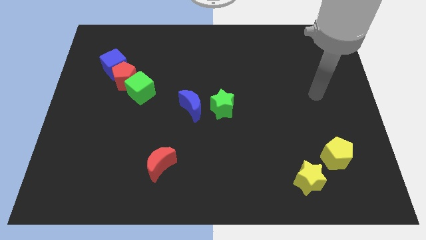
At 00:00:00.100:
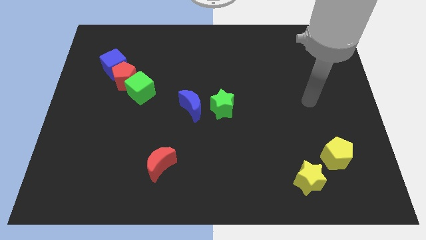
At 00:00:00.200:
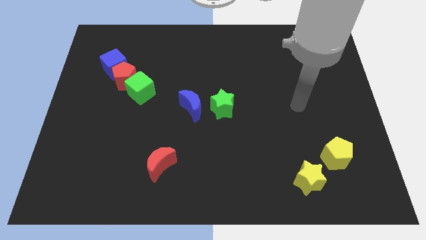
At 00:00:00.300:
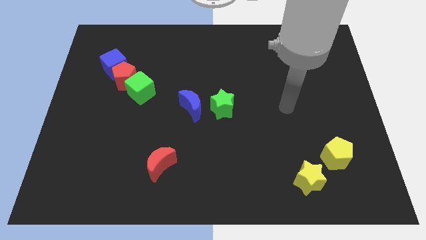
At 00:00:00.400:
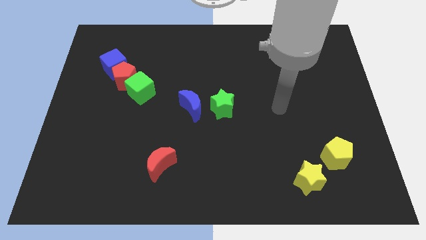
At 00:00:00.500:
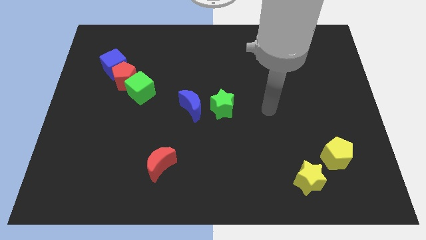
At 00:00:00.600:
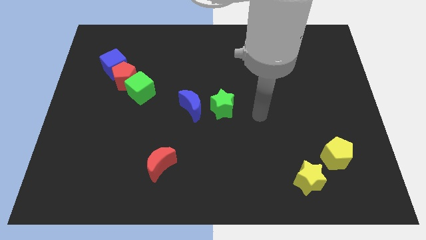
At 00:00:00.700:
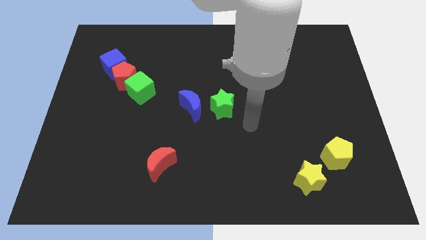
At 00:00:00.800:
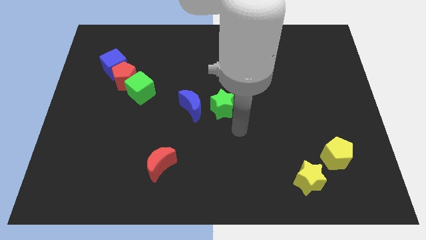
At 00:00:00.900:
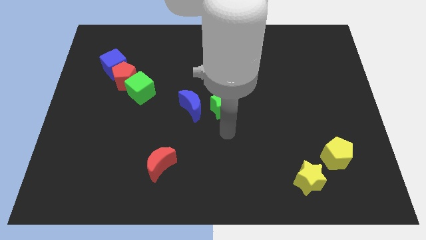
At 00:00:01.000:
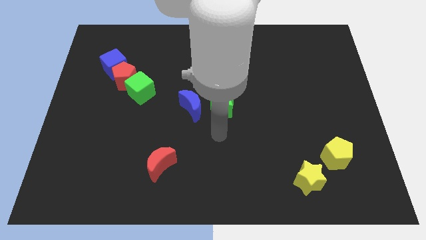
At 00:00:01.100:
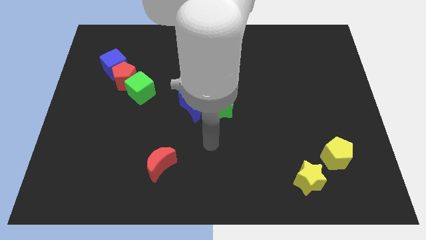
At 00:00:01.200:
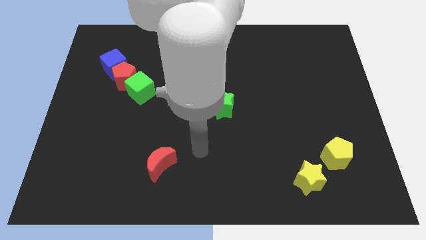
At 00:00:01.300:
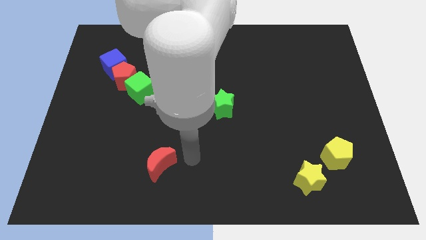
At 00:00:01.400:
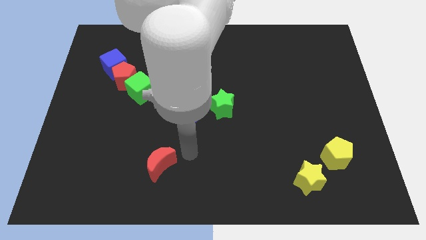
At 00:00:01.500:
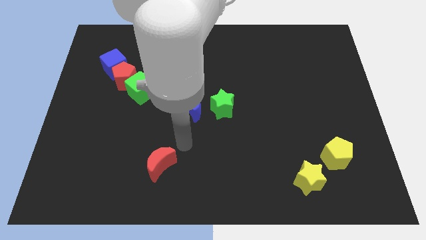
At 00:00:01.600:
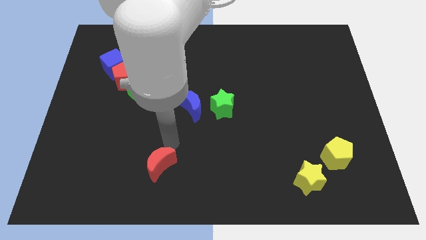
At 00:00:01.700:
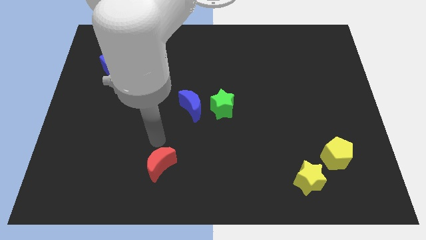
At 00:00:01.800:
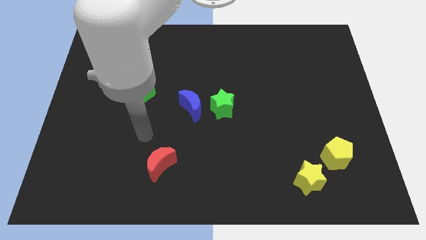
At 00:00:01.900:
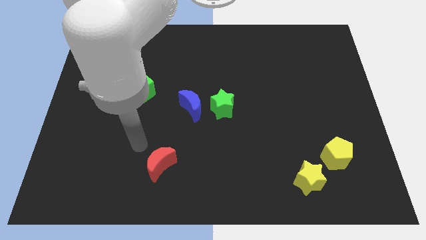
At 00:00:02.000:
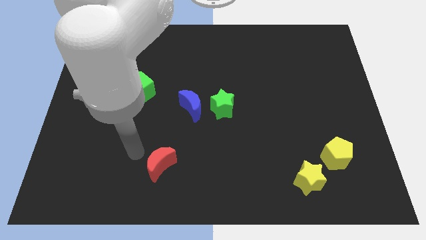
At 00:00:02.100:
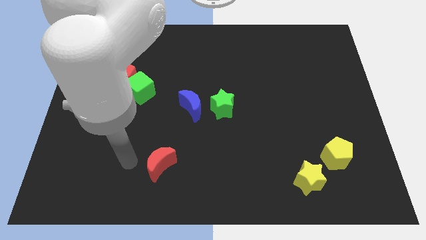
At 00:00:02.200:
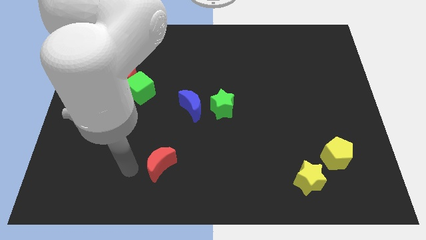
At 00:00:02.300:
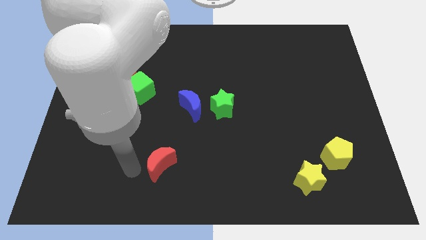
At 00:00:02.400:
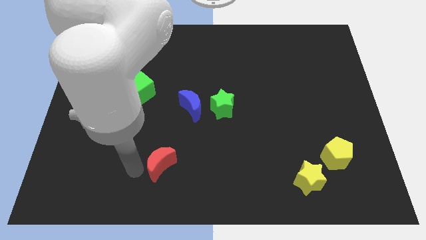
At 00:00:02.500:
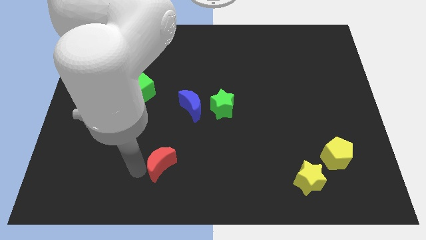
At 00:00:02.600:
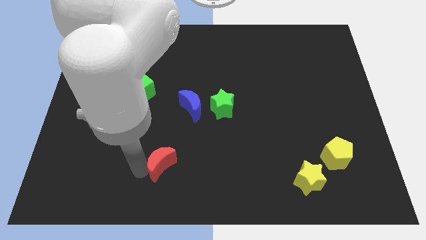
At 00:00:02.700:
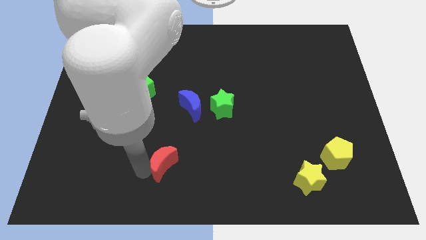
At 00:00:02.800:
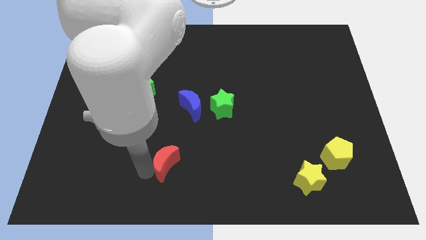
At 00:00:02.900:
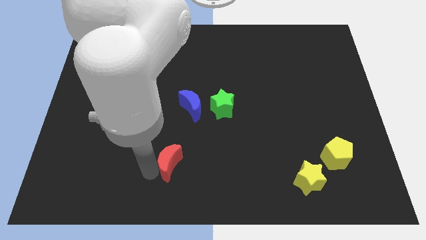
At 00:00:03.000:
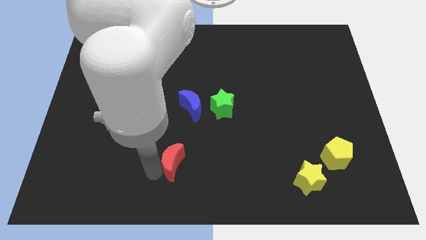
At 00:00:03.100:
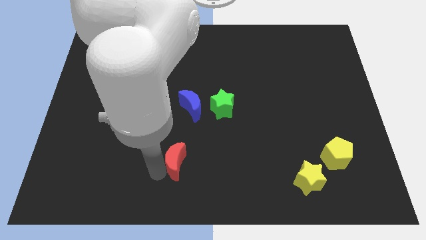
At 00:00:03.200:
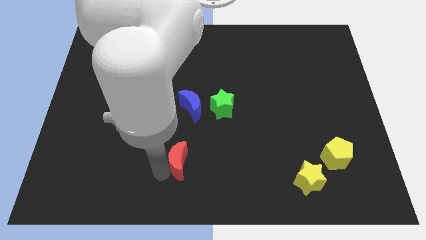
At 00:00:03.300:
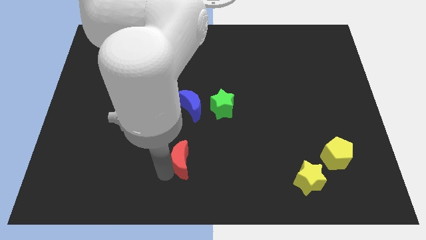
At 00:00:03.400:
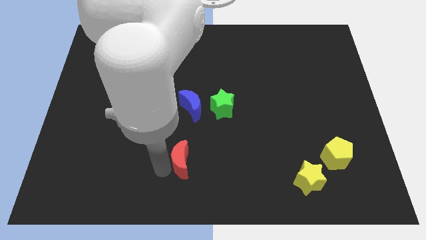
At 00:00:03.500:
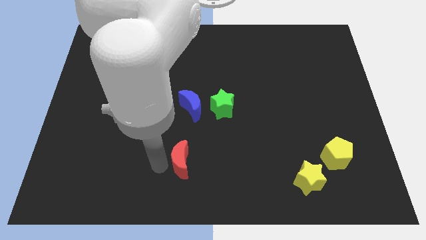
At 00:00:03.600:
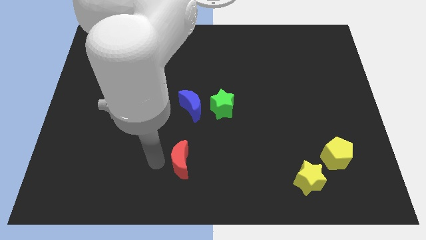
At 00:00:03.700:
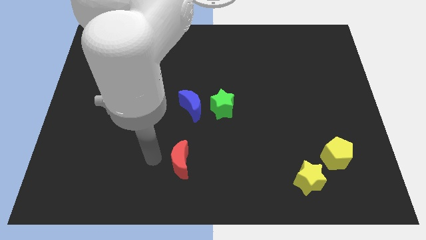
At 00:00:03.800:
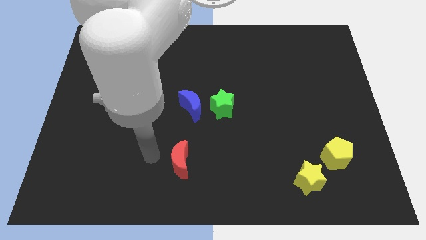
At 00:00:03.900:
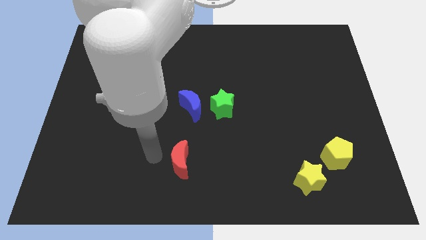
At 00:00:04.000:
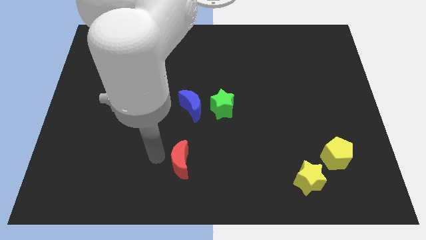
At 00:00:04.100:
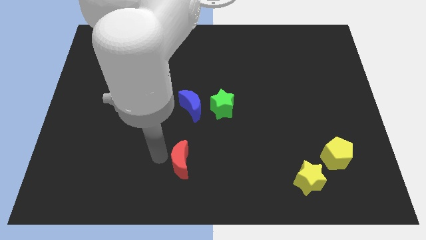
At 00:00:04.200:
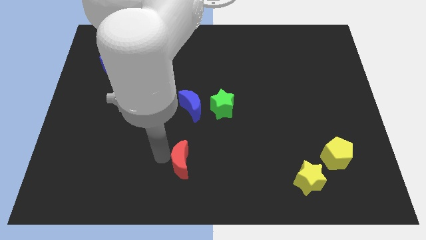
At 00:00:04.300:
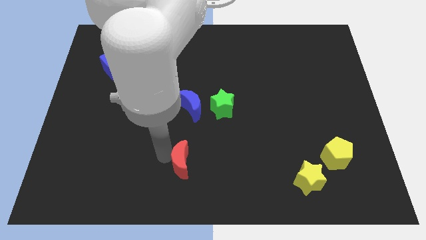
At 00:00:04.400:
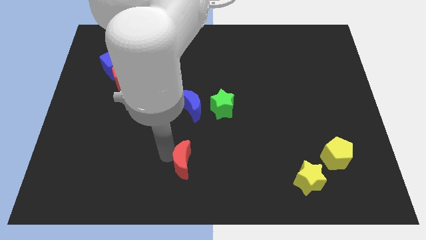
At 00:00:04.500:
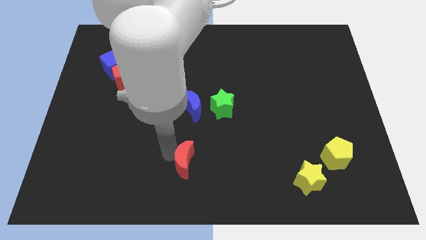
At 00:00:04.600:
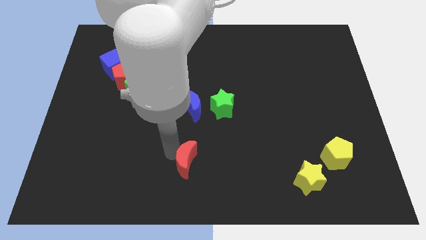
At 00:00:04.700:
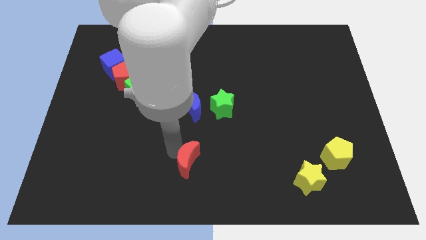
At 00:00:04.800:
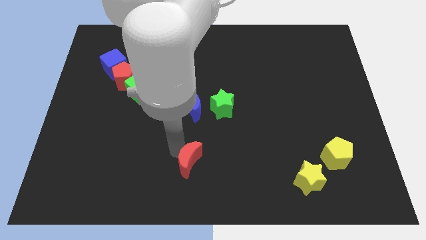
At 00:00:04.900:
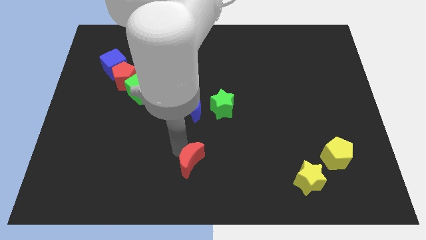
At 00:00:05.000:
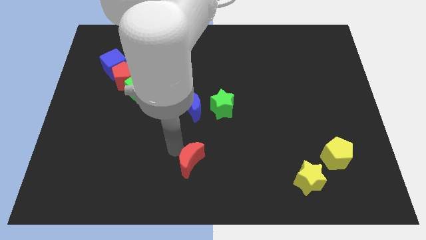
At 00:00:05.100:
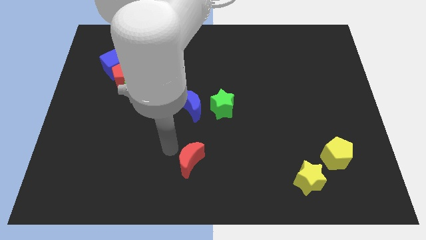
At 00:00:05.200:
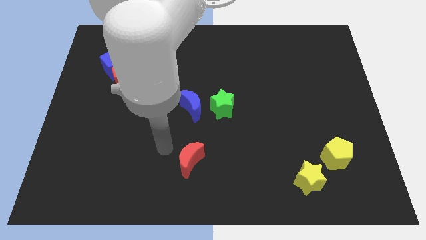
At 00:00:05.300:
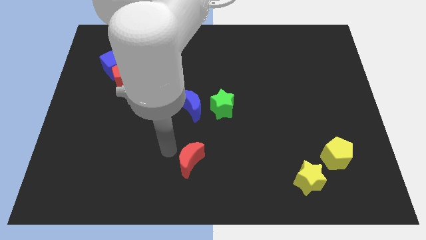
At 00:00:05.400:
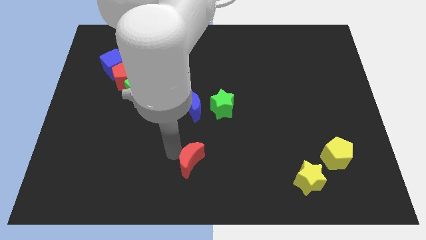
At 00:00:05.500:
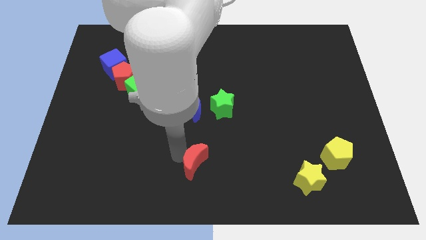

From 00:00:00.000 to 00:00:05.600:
push the red moon right a little bit

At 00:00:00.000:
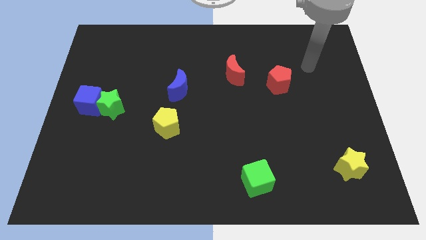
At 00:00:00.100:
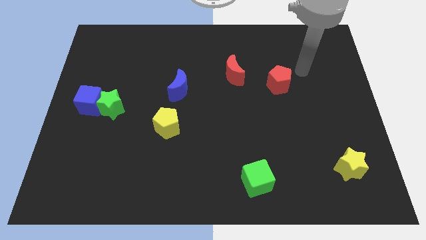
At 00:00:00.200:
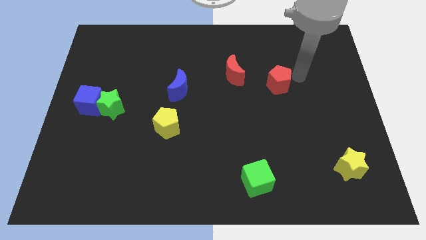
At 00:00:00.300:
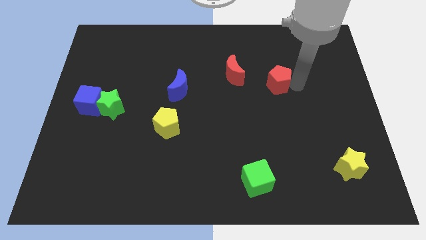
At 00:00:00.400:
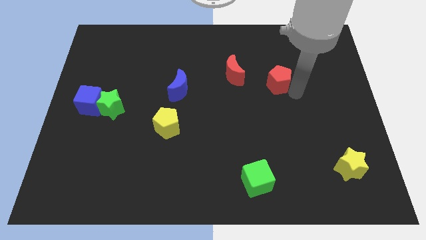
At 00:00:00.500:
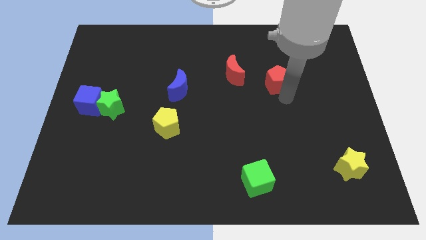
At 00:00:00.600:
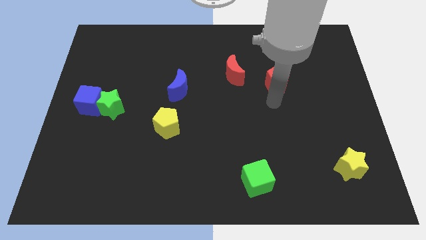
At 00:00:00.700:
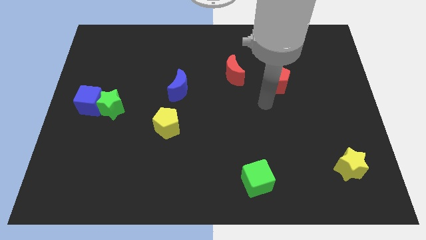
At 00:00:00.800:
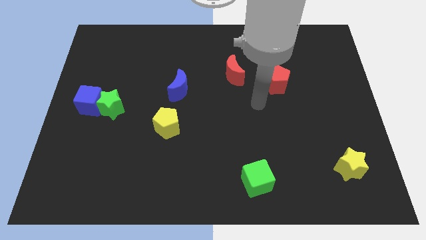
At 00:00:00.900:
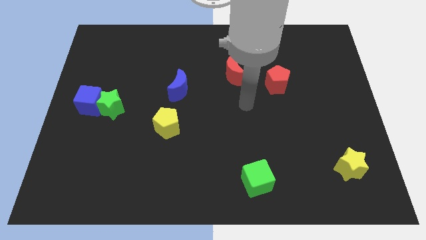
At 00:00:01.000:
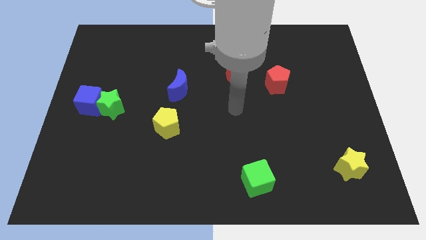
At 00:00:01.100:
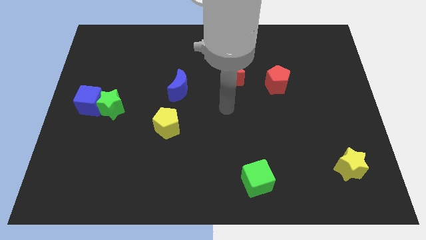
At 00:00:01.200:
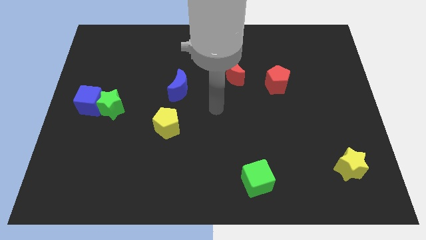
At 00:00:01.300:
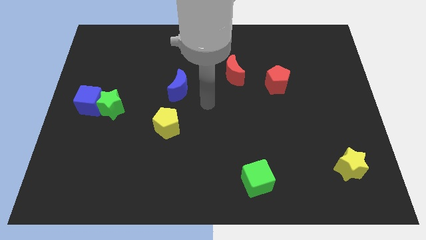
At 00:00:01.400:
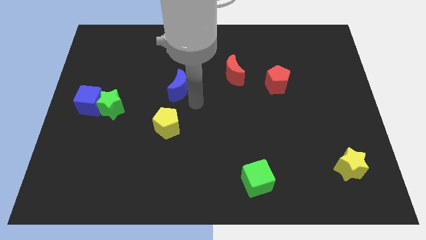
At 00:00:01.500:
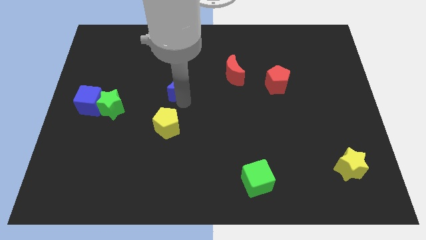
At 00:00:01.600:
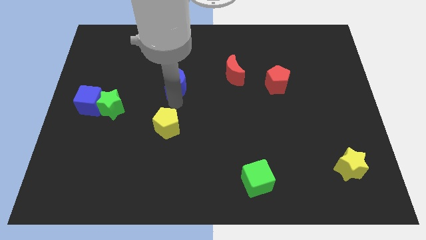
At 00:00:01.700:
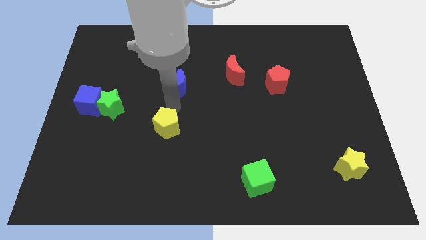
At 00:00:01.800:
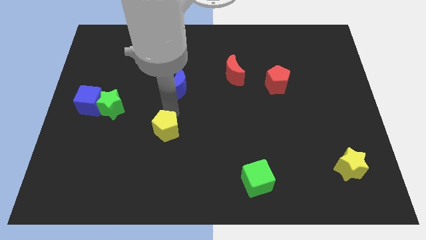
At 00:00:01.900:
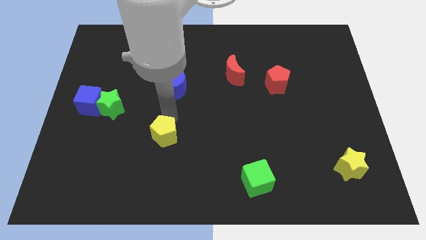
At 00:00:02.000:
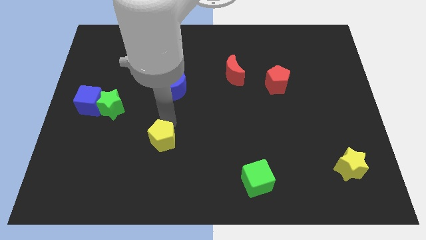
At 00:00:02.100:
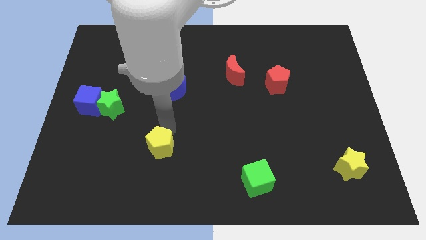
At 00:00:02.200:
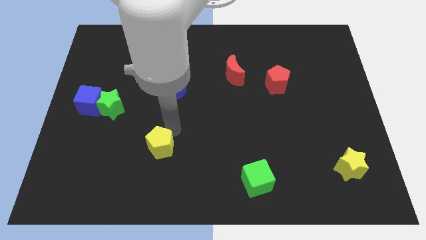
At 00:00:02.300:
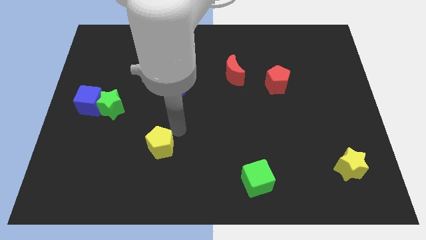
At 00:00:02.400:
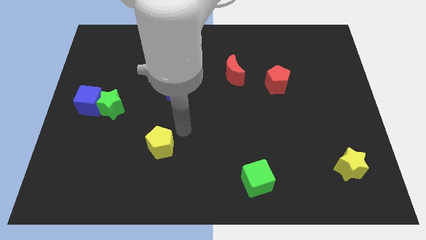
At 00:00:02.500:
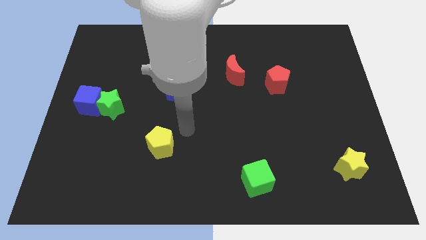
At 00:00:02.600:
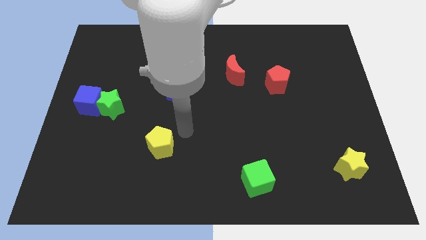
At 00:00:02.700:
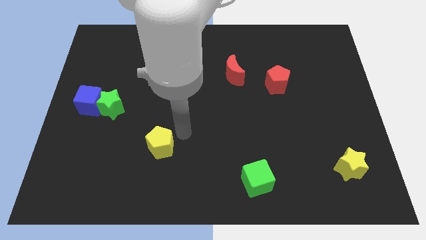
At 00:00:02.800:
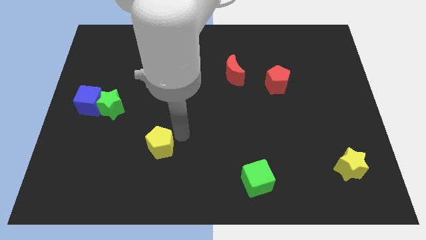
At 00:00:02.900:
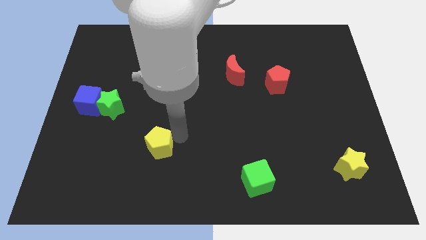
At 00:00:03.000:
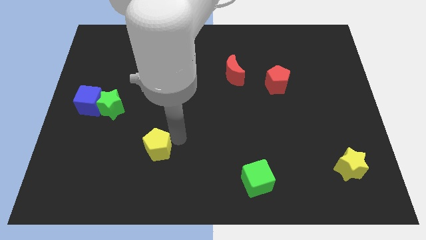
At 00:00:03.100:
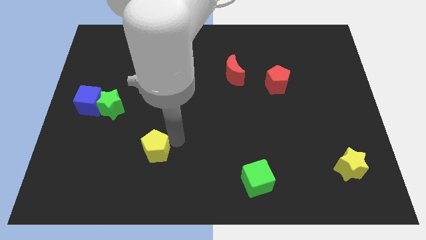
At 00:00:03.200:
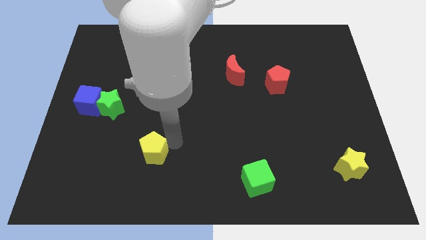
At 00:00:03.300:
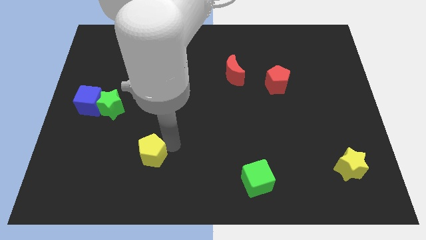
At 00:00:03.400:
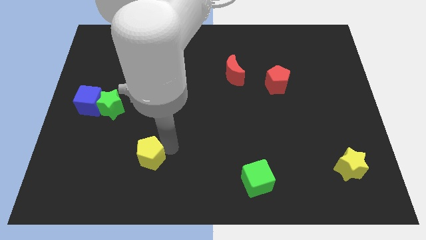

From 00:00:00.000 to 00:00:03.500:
slide the yellow pentagon somewhat downwards and to the left diagonally
